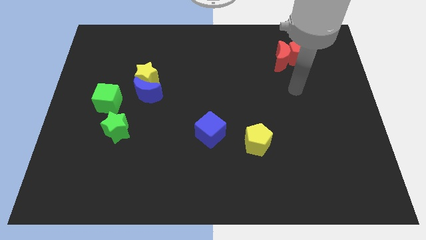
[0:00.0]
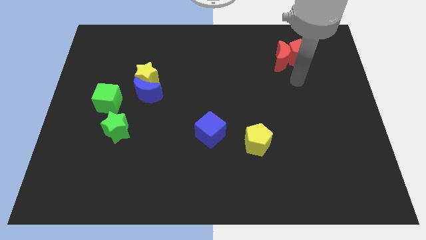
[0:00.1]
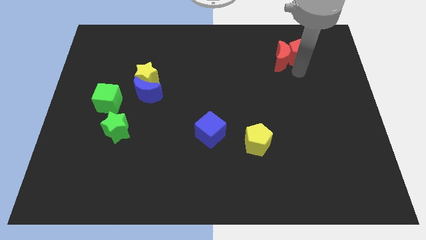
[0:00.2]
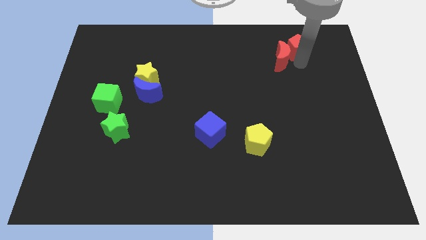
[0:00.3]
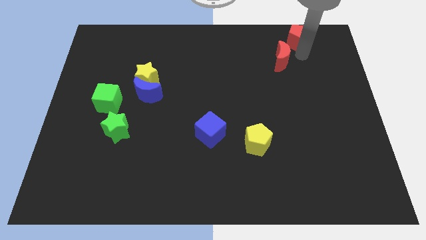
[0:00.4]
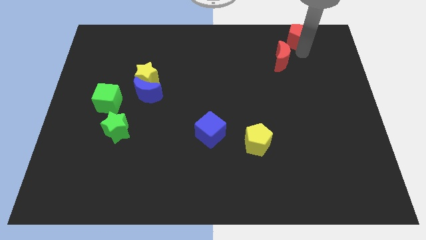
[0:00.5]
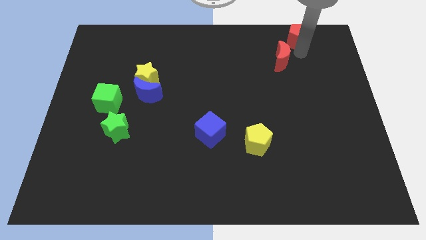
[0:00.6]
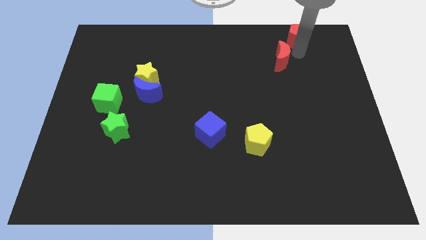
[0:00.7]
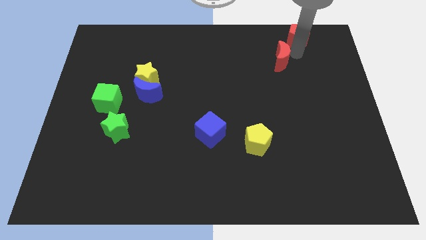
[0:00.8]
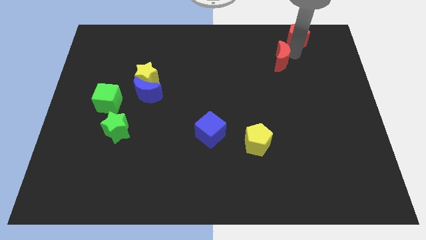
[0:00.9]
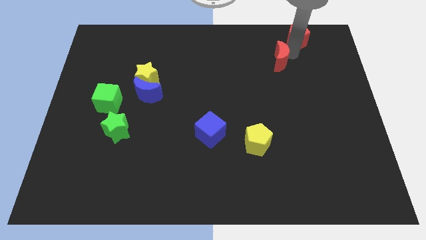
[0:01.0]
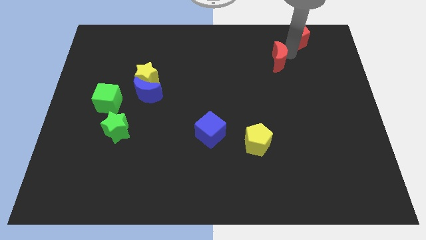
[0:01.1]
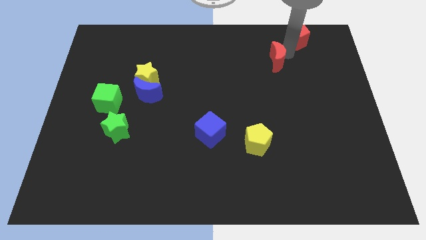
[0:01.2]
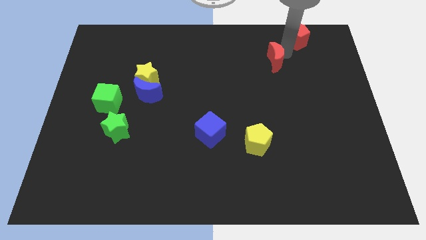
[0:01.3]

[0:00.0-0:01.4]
move the red moon away from the red pentagon

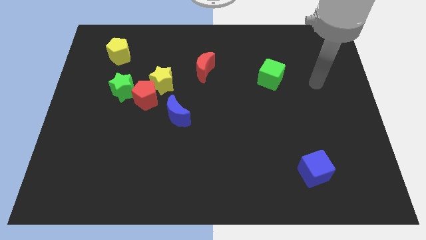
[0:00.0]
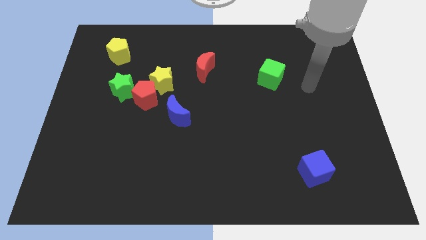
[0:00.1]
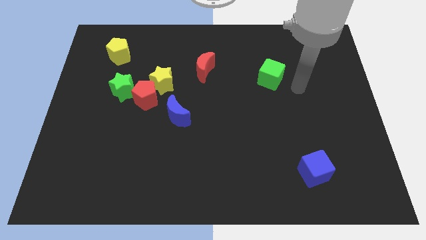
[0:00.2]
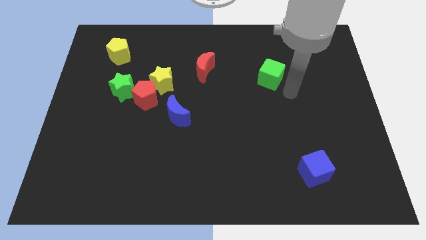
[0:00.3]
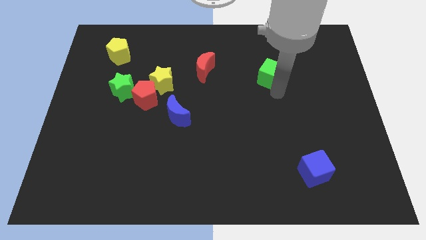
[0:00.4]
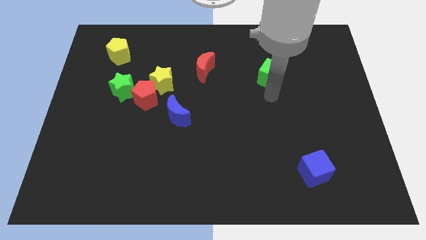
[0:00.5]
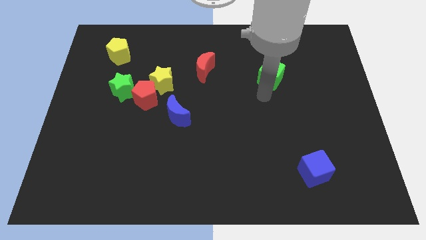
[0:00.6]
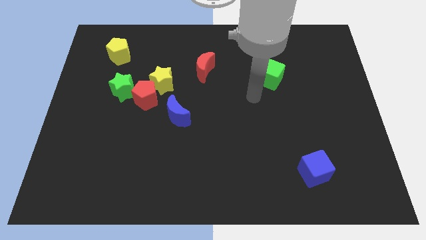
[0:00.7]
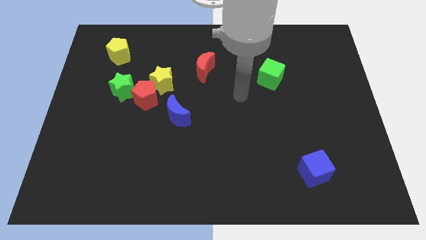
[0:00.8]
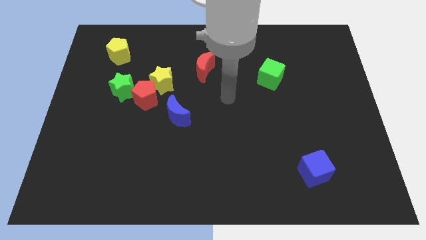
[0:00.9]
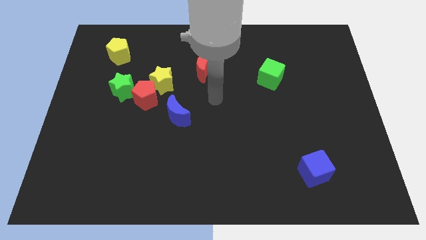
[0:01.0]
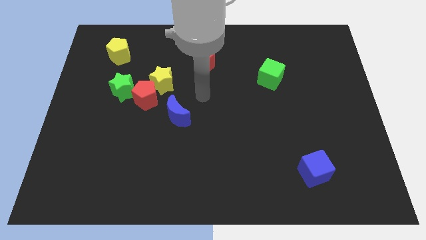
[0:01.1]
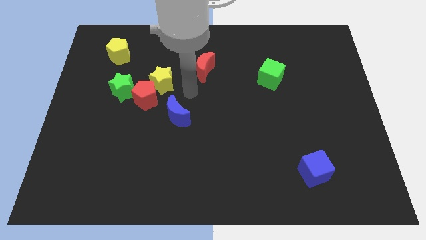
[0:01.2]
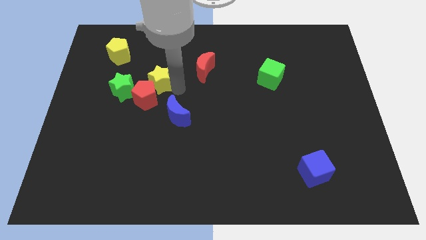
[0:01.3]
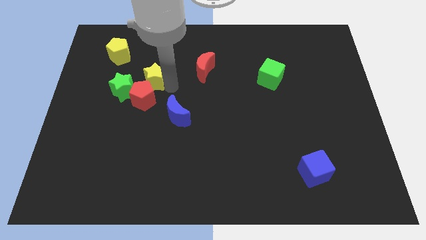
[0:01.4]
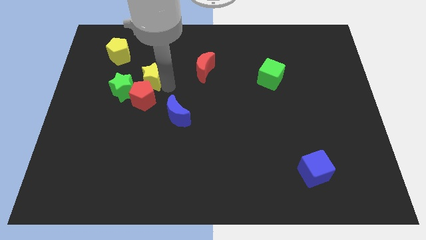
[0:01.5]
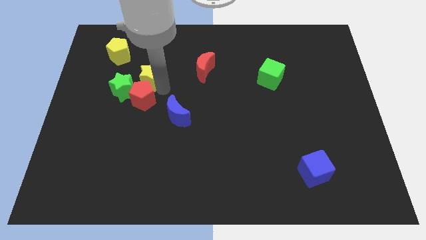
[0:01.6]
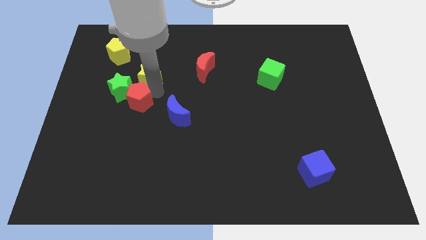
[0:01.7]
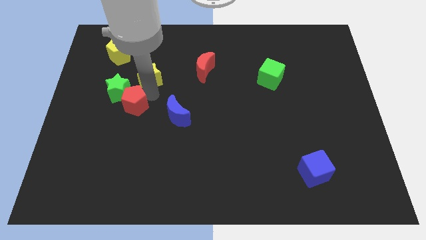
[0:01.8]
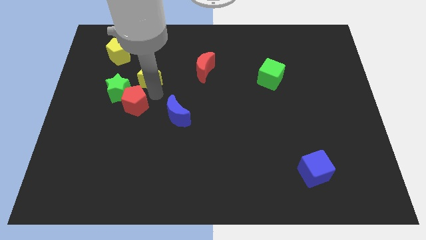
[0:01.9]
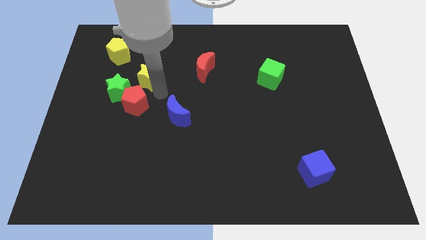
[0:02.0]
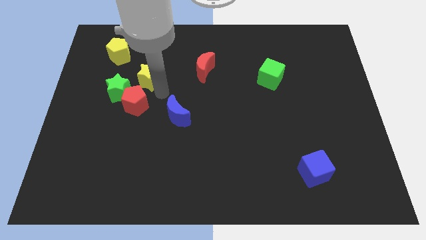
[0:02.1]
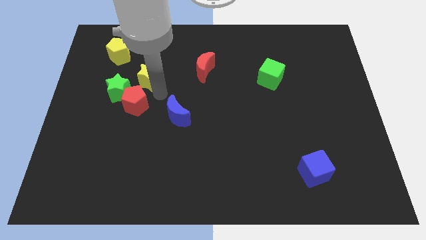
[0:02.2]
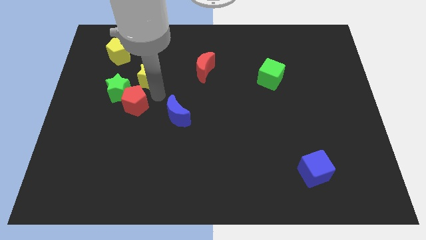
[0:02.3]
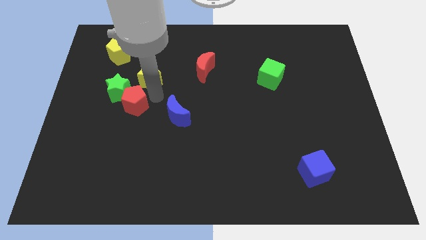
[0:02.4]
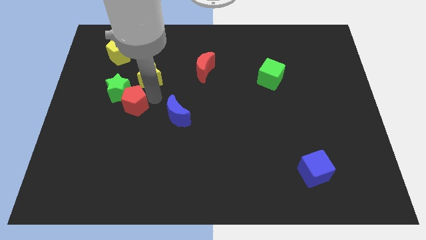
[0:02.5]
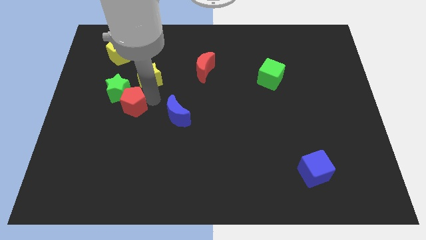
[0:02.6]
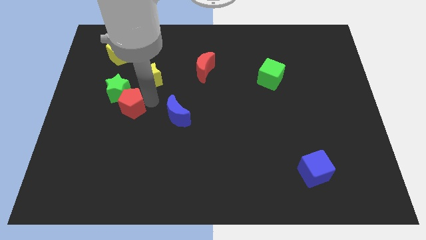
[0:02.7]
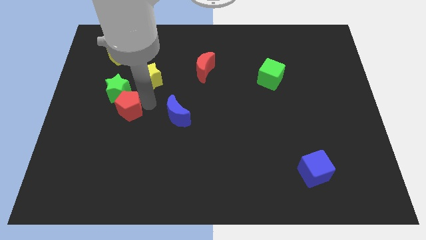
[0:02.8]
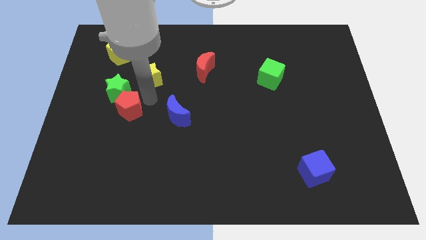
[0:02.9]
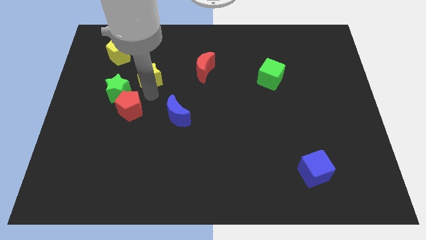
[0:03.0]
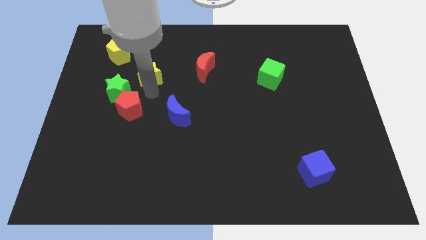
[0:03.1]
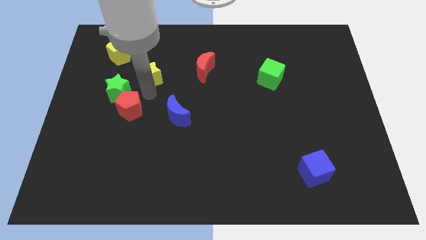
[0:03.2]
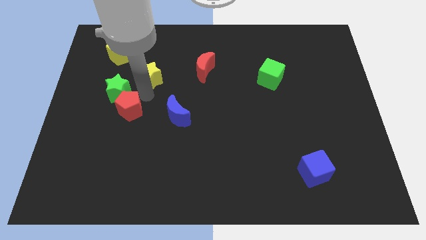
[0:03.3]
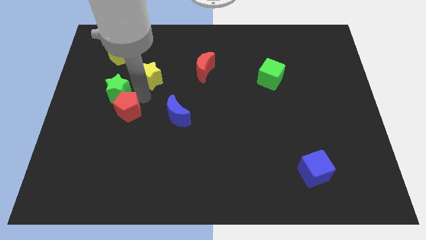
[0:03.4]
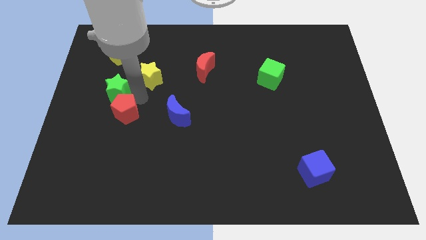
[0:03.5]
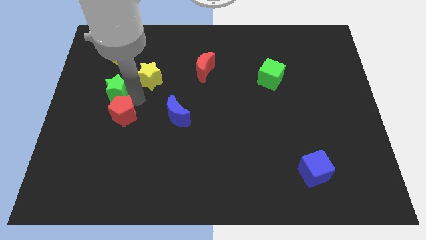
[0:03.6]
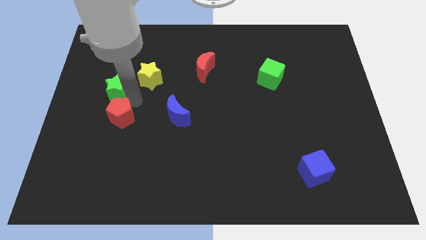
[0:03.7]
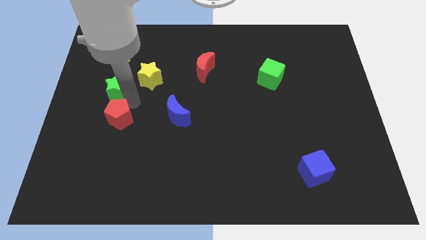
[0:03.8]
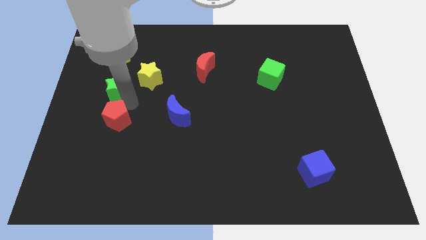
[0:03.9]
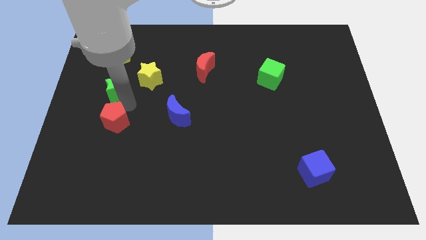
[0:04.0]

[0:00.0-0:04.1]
separate the red pentagon from the yellow star, green star, and blue moon

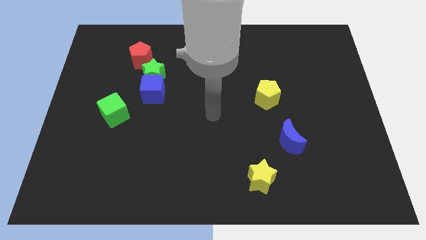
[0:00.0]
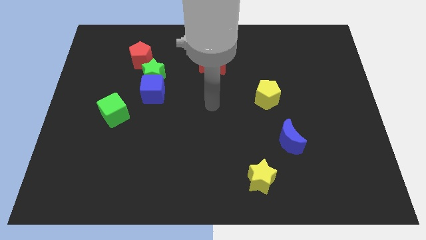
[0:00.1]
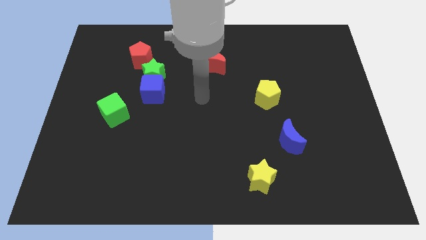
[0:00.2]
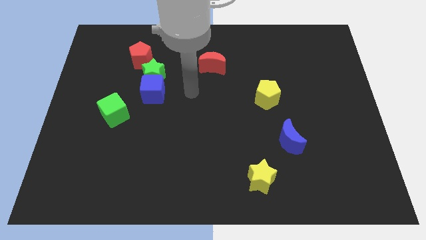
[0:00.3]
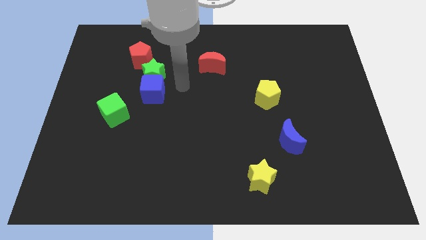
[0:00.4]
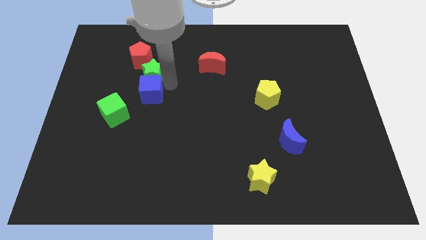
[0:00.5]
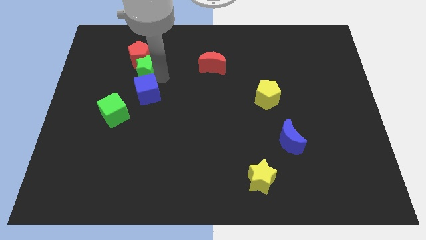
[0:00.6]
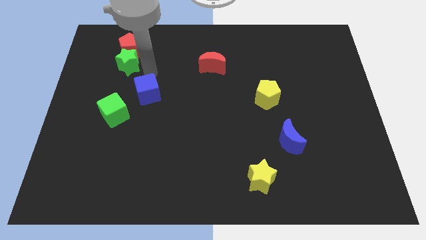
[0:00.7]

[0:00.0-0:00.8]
separate the blue cube from the green star

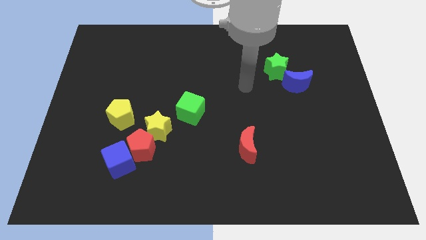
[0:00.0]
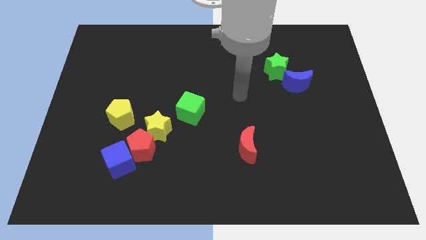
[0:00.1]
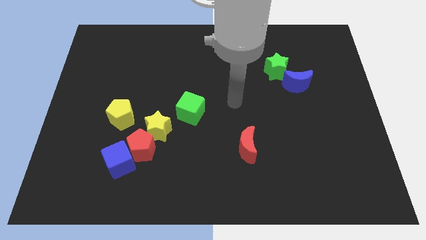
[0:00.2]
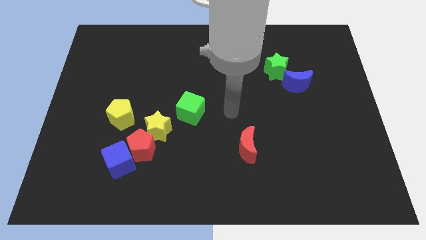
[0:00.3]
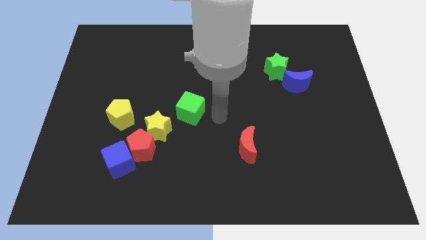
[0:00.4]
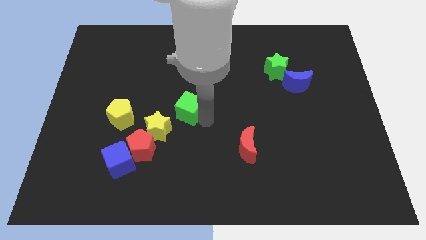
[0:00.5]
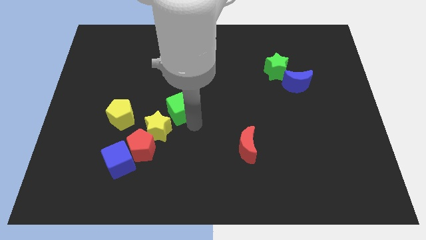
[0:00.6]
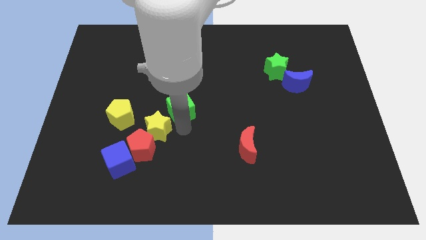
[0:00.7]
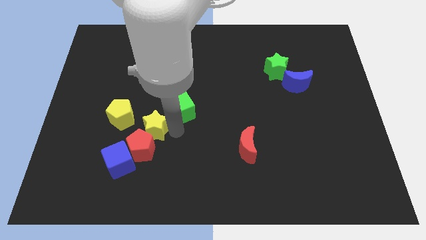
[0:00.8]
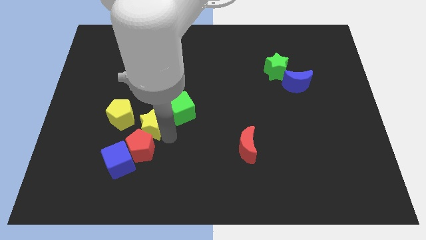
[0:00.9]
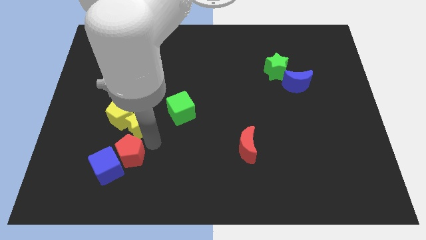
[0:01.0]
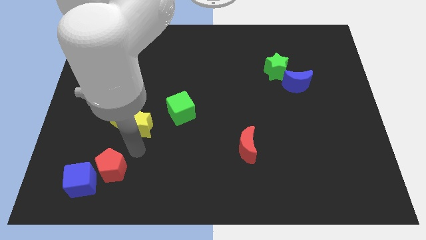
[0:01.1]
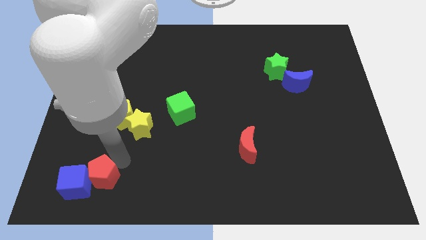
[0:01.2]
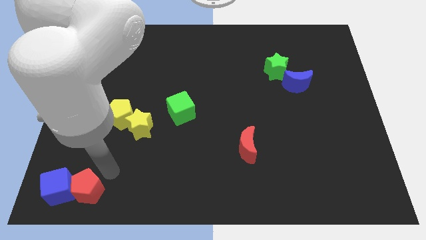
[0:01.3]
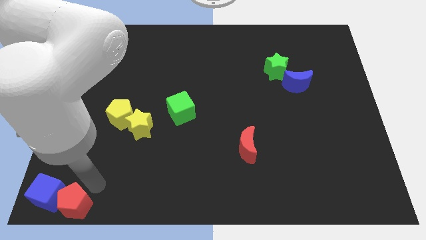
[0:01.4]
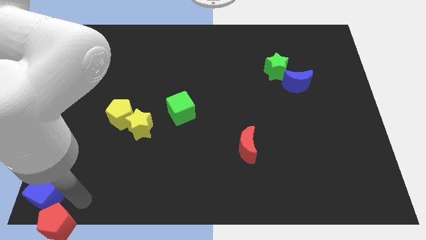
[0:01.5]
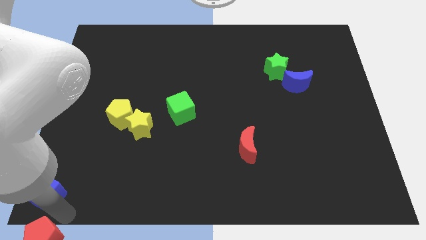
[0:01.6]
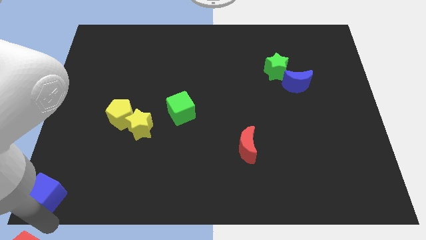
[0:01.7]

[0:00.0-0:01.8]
move the blue cube away from the red pentagon

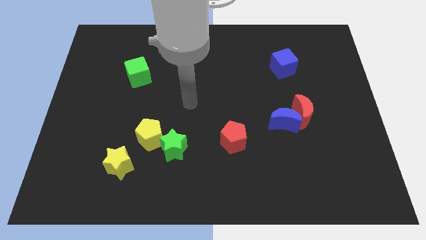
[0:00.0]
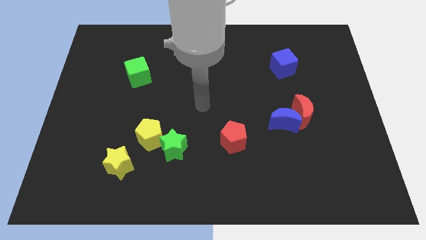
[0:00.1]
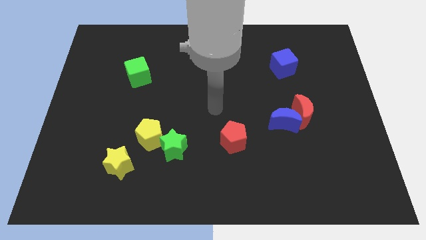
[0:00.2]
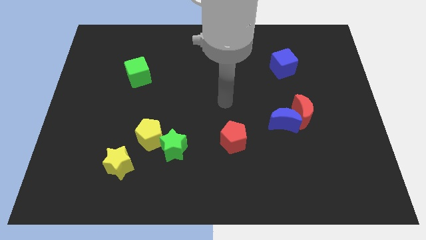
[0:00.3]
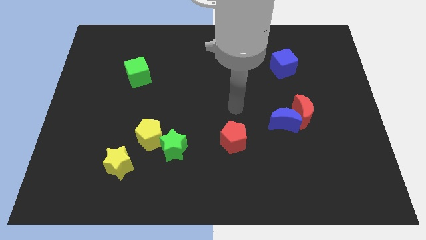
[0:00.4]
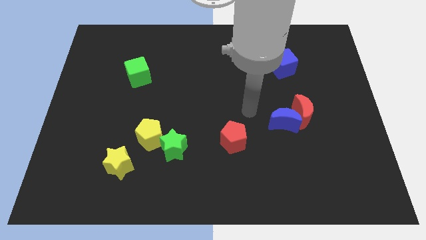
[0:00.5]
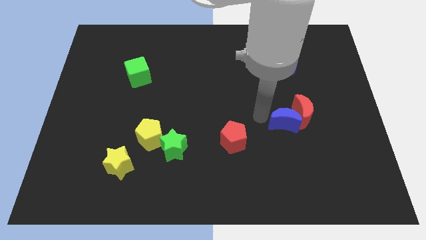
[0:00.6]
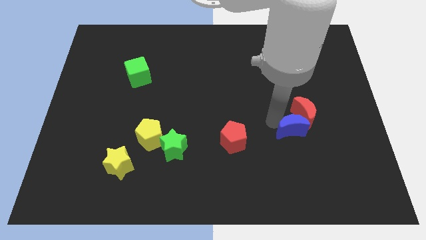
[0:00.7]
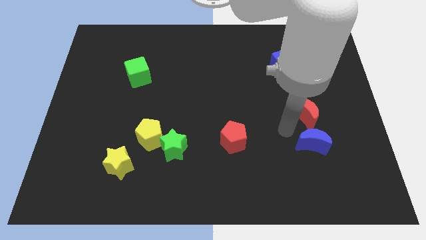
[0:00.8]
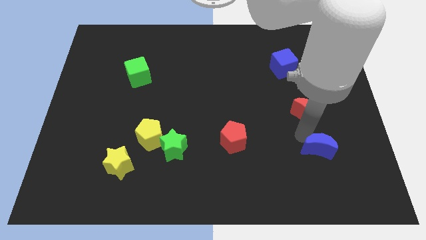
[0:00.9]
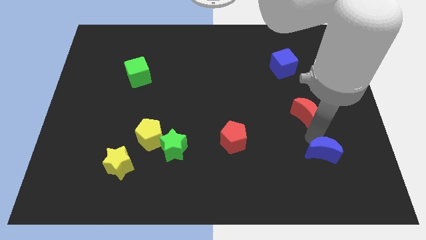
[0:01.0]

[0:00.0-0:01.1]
move the red moon away from the blue moon
